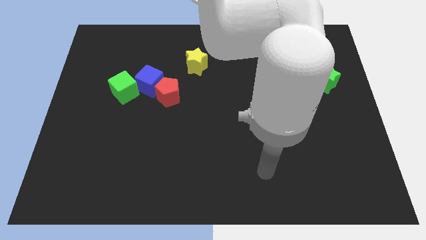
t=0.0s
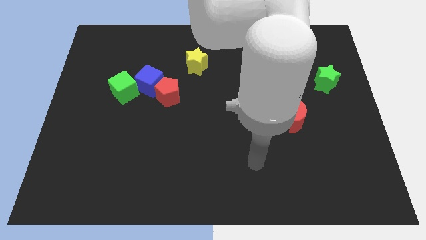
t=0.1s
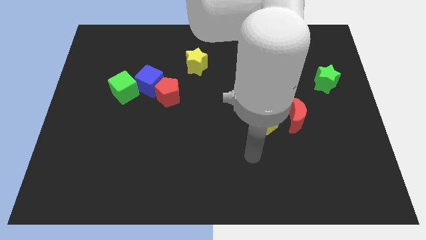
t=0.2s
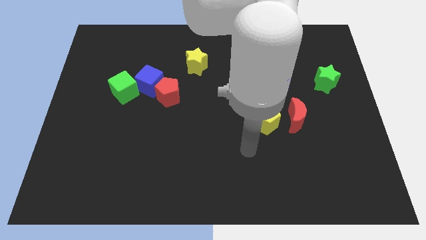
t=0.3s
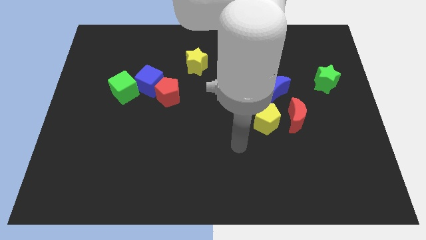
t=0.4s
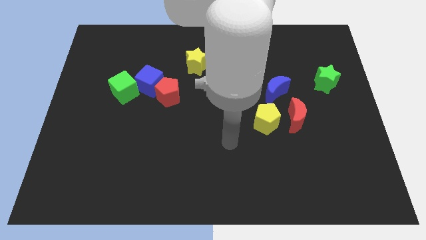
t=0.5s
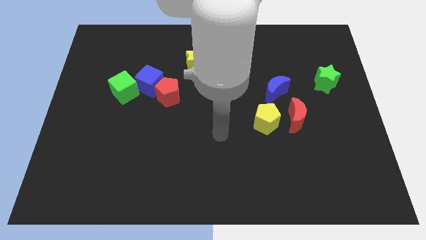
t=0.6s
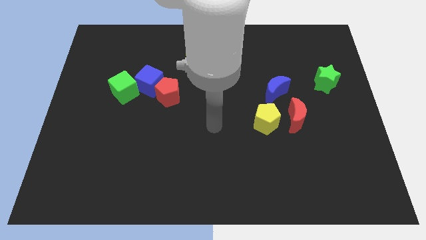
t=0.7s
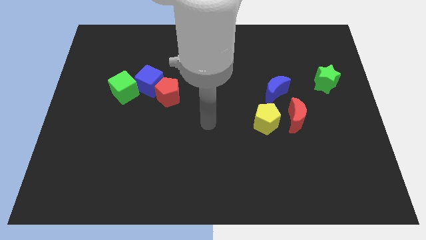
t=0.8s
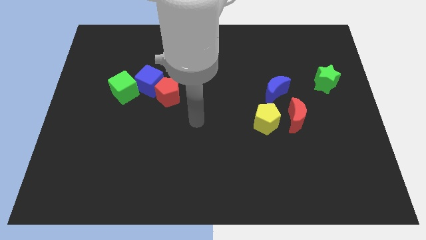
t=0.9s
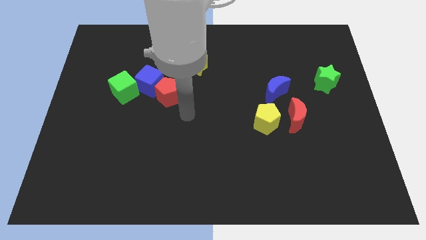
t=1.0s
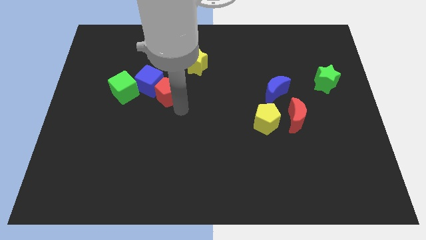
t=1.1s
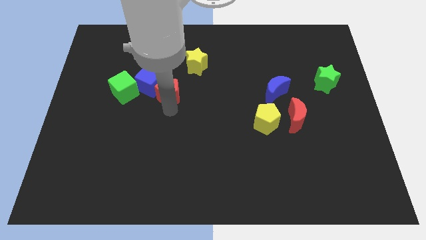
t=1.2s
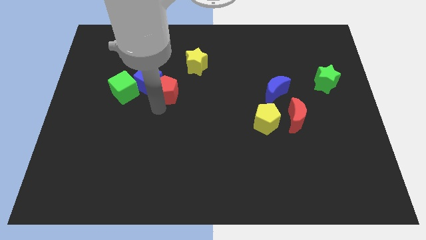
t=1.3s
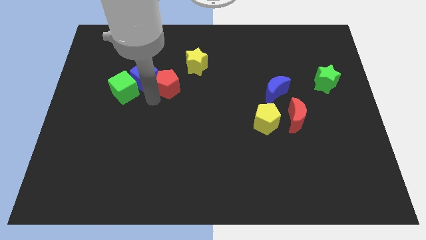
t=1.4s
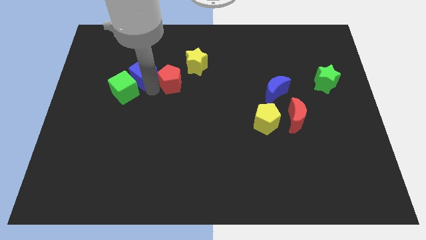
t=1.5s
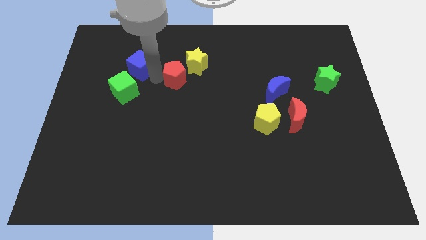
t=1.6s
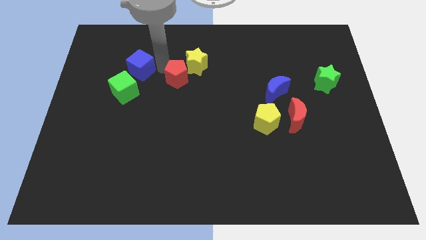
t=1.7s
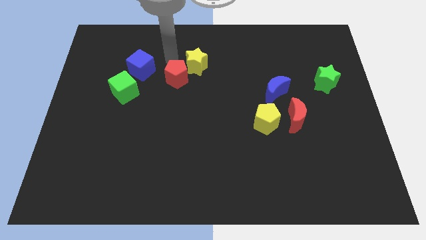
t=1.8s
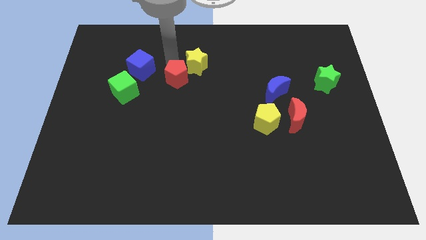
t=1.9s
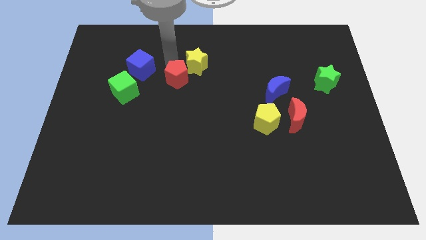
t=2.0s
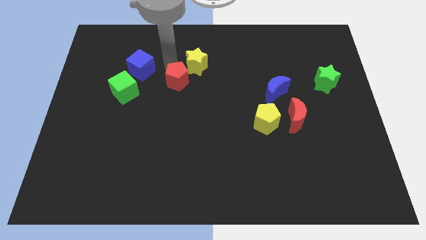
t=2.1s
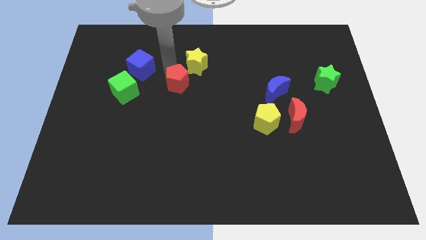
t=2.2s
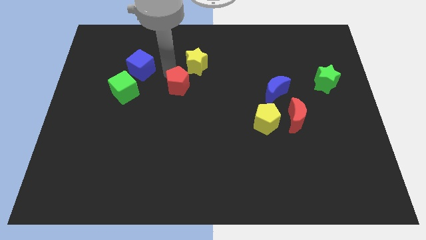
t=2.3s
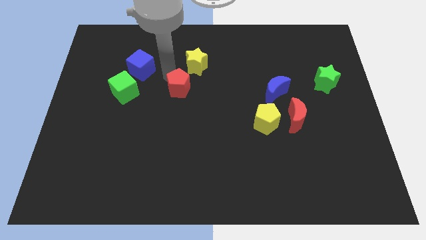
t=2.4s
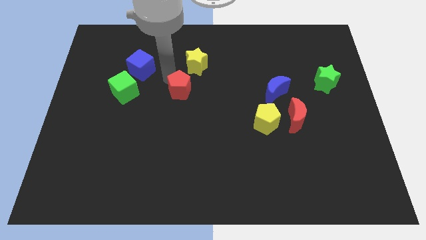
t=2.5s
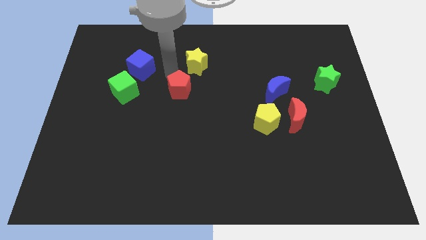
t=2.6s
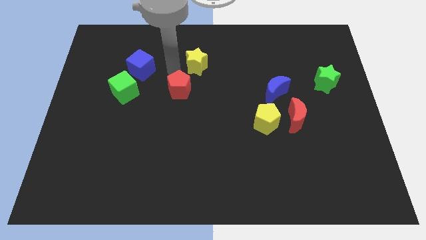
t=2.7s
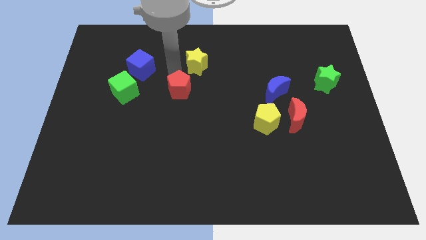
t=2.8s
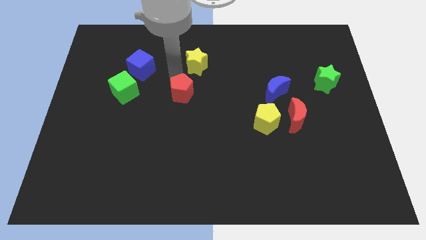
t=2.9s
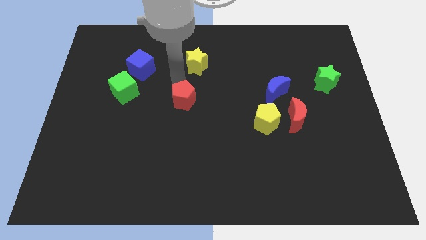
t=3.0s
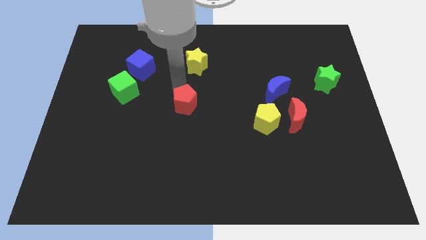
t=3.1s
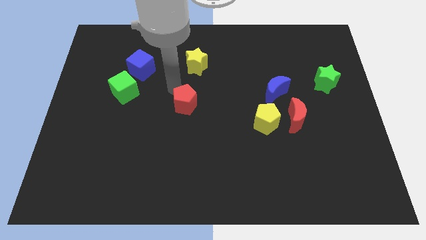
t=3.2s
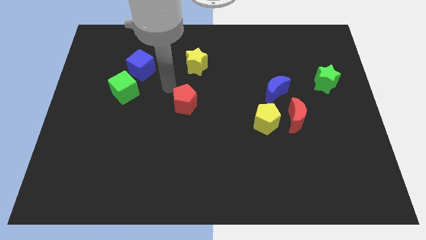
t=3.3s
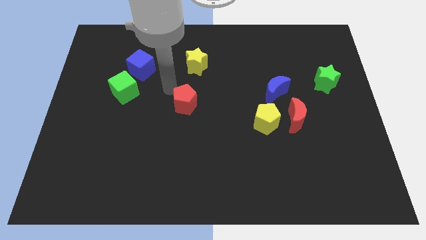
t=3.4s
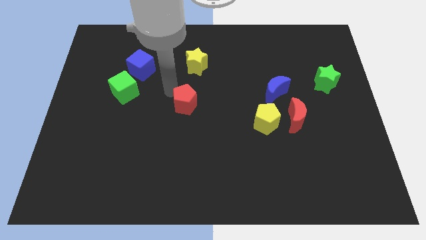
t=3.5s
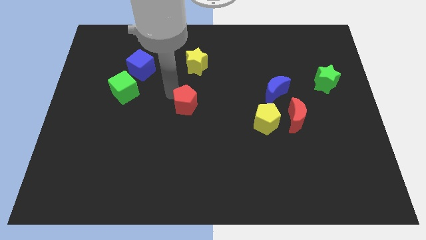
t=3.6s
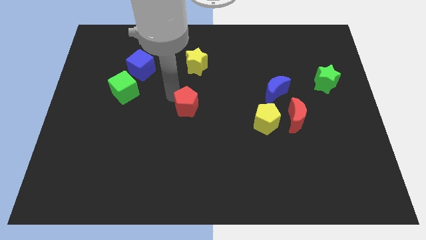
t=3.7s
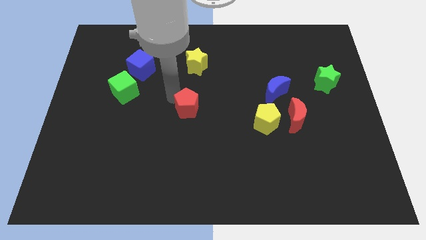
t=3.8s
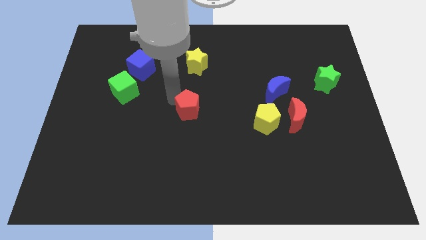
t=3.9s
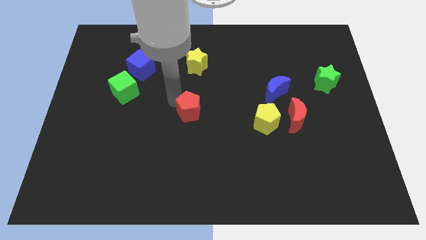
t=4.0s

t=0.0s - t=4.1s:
move the red pentagon downwards and then to the right slightly

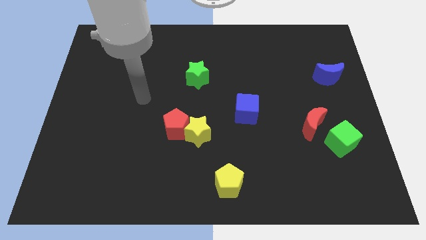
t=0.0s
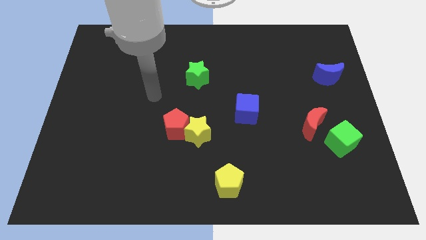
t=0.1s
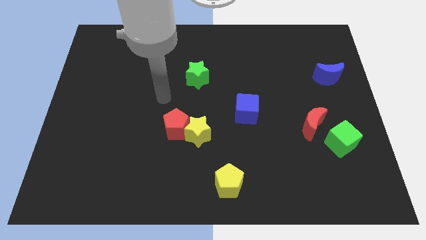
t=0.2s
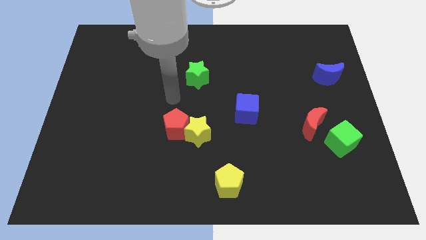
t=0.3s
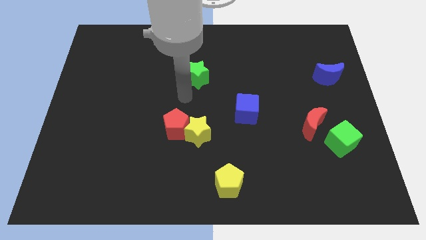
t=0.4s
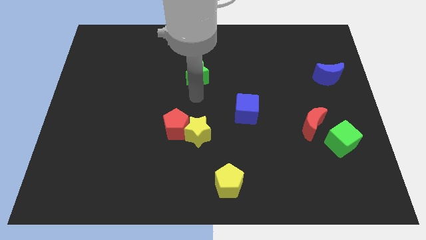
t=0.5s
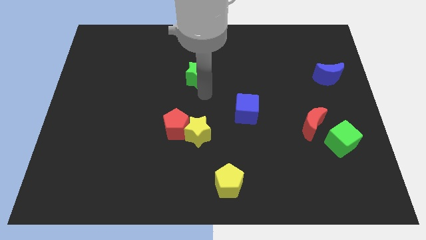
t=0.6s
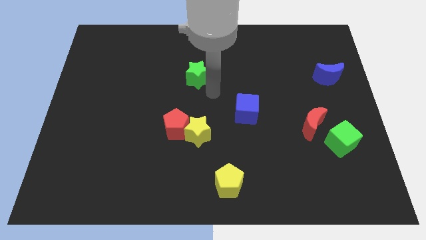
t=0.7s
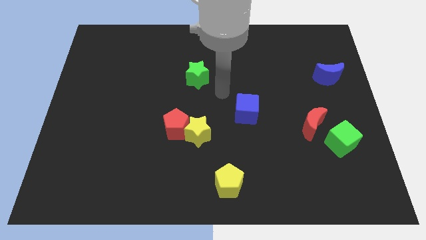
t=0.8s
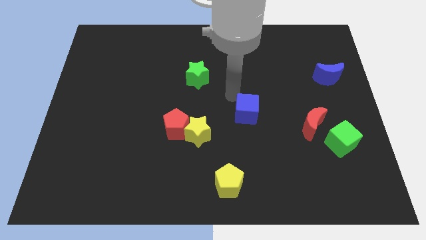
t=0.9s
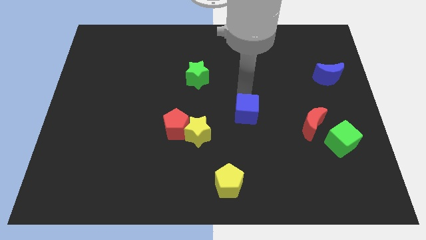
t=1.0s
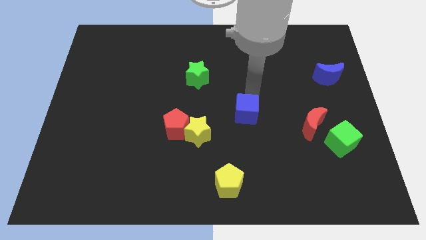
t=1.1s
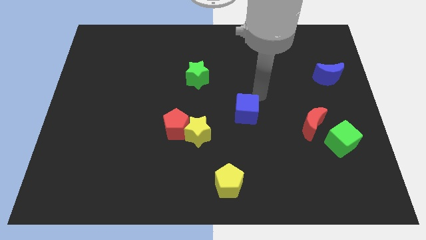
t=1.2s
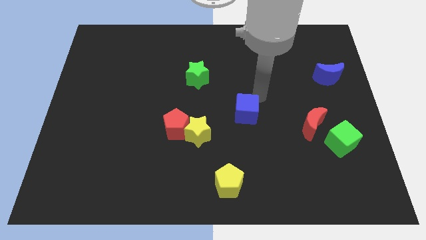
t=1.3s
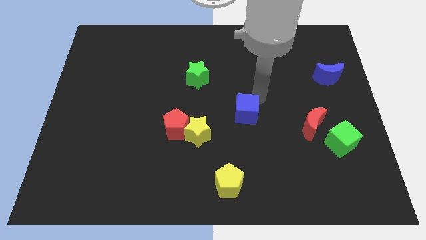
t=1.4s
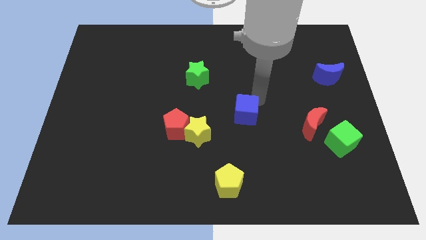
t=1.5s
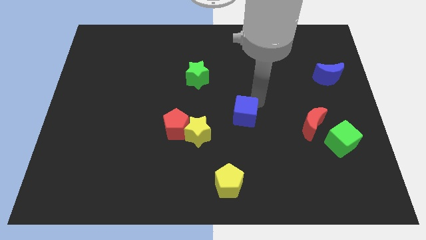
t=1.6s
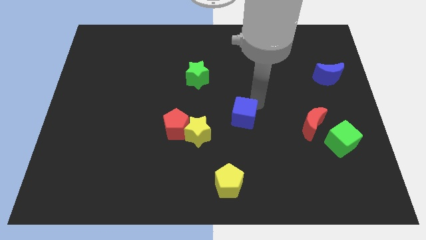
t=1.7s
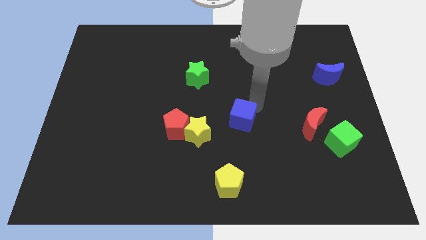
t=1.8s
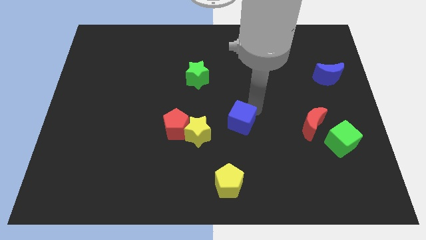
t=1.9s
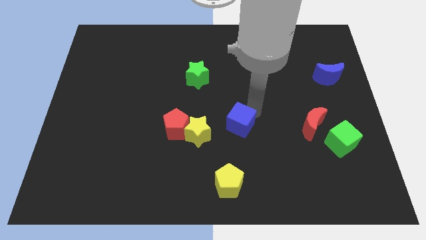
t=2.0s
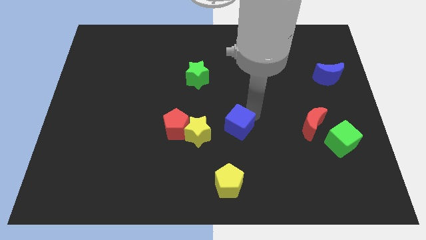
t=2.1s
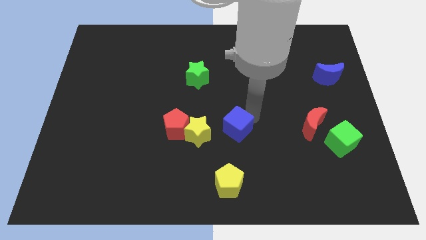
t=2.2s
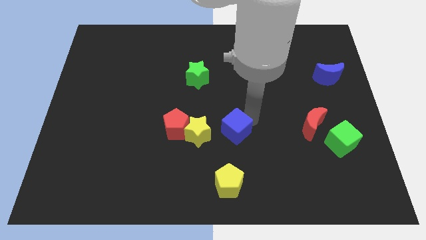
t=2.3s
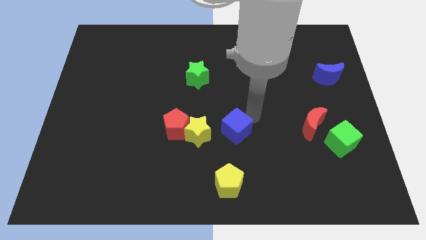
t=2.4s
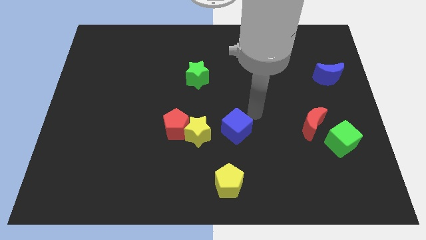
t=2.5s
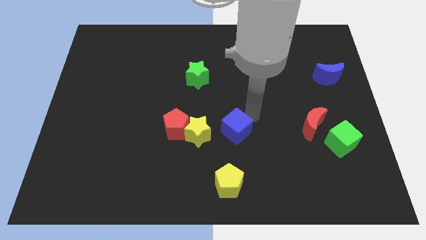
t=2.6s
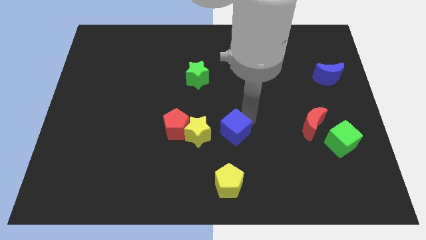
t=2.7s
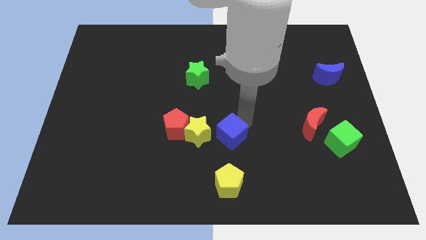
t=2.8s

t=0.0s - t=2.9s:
slightly move the blue cube down and to the left

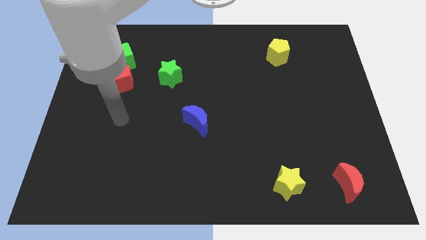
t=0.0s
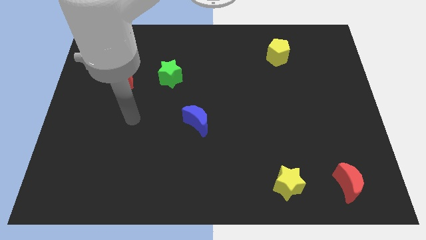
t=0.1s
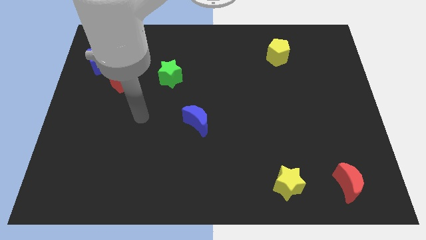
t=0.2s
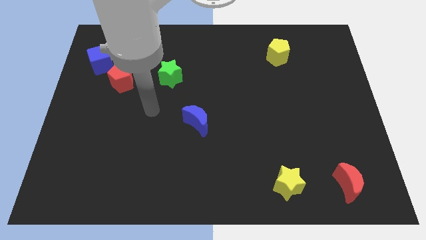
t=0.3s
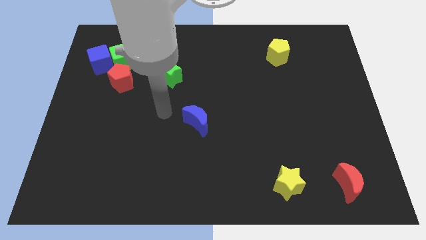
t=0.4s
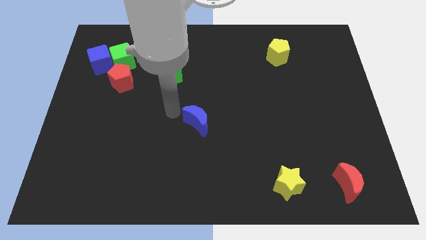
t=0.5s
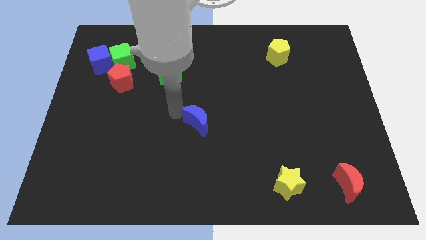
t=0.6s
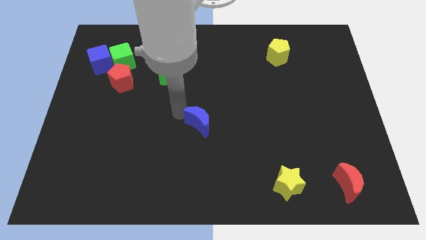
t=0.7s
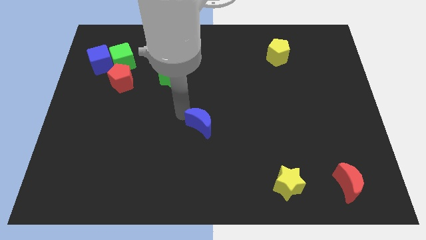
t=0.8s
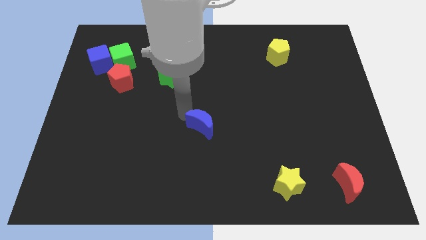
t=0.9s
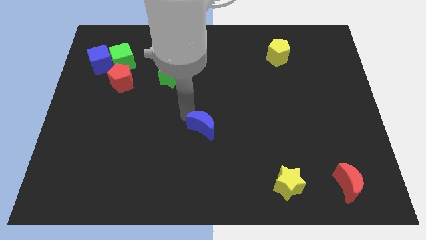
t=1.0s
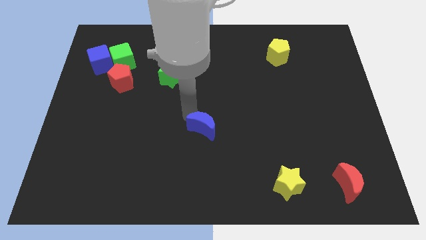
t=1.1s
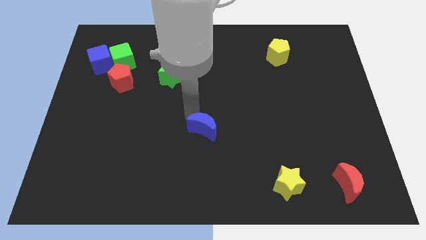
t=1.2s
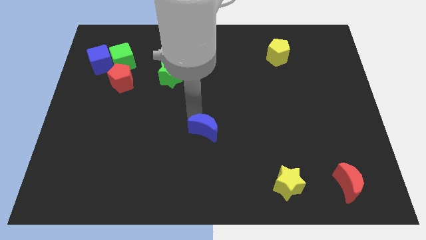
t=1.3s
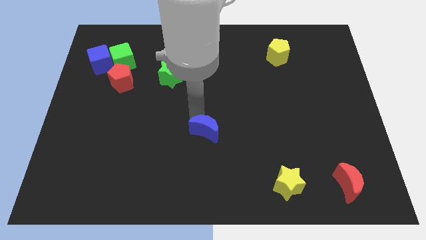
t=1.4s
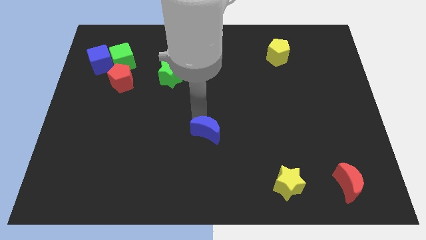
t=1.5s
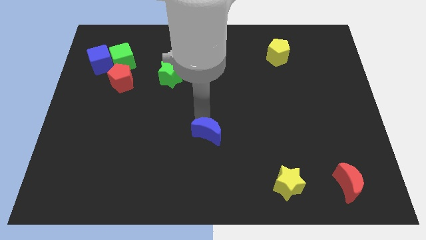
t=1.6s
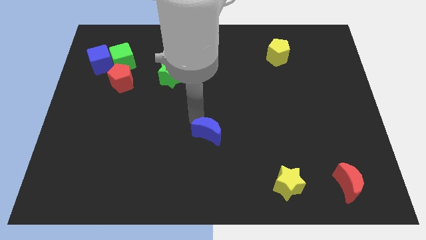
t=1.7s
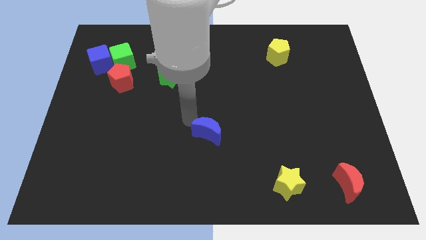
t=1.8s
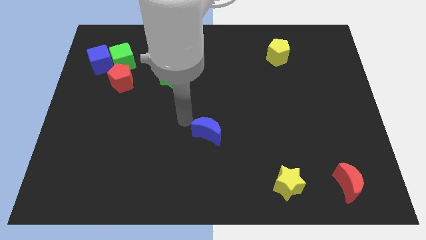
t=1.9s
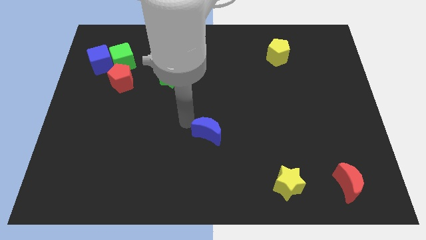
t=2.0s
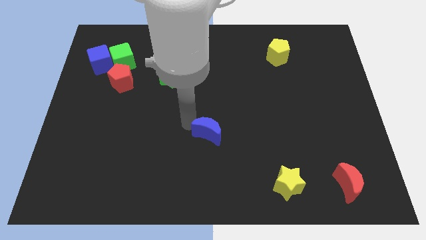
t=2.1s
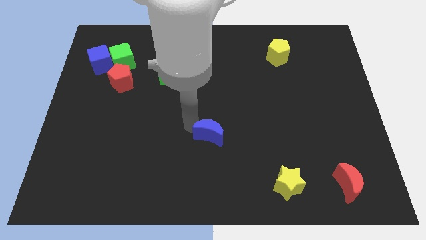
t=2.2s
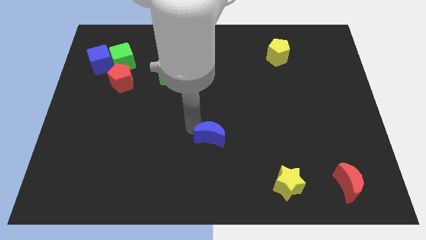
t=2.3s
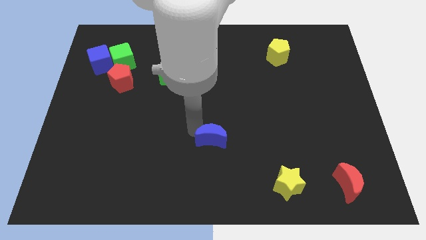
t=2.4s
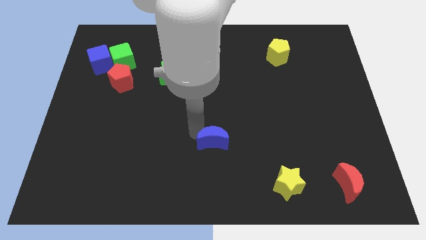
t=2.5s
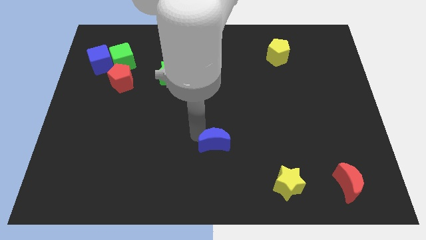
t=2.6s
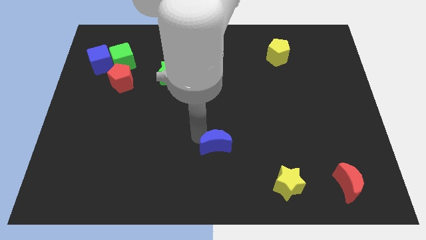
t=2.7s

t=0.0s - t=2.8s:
slightly slide the blue moon downwards and then to the right
